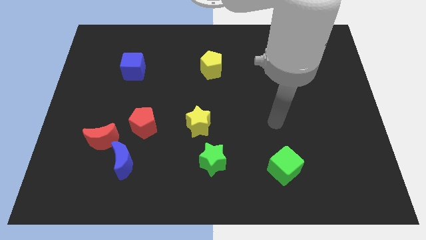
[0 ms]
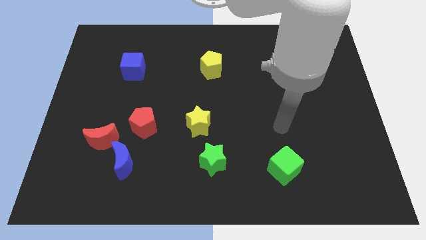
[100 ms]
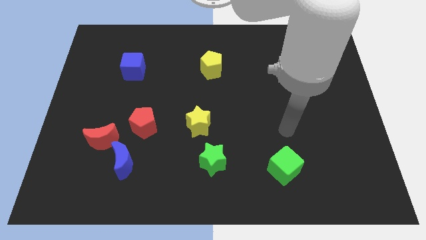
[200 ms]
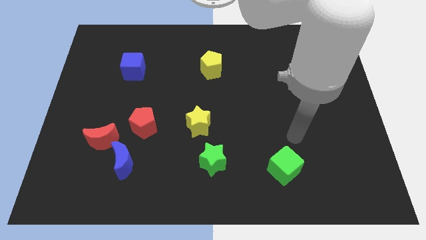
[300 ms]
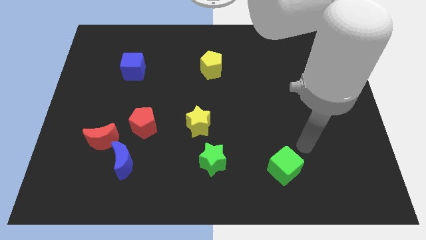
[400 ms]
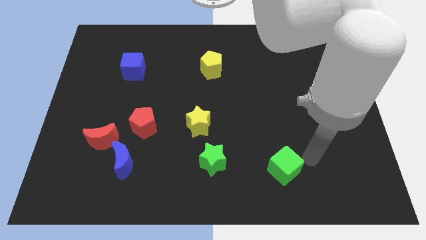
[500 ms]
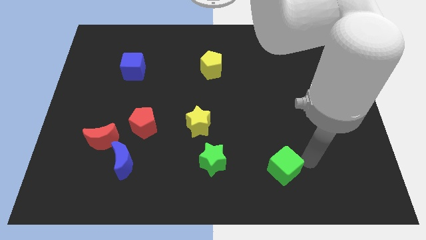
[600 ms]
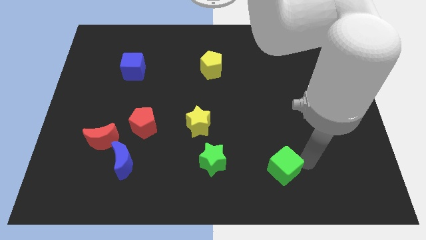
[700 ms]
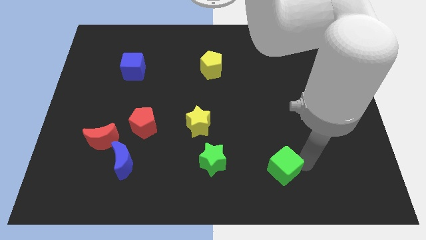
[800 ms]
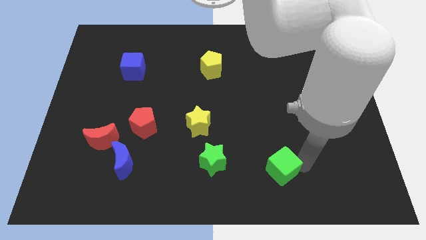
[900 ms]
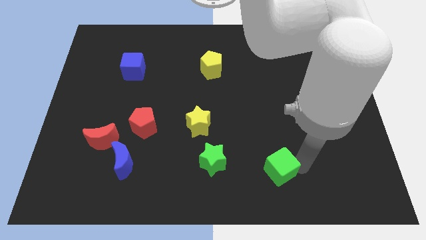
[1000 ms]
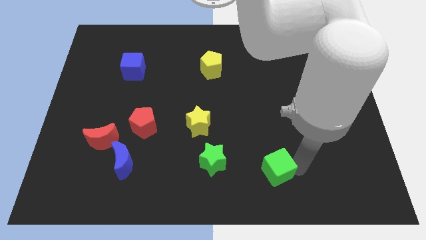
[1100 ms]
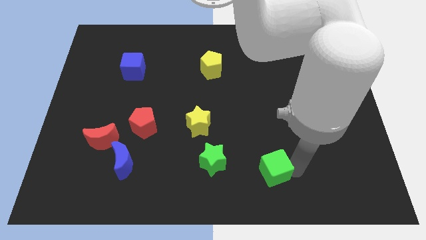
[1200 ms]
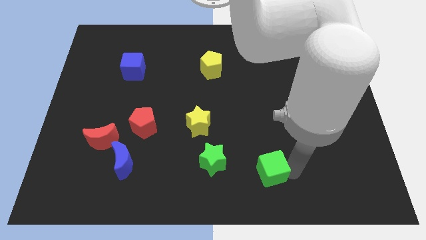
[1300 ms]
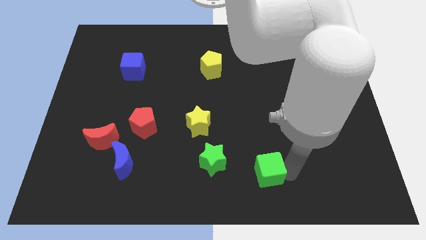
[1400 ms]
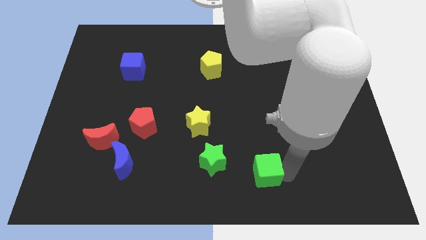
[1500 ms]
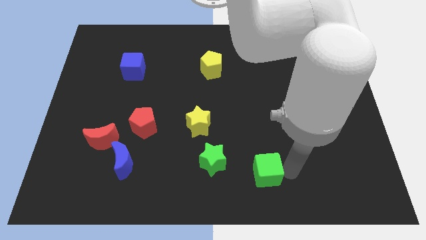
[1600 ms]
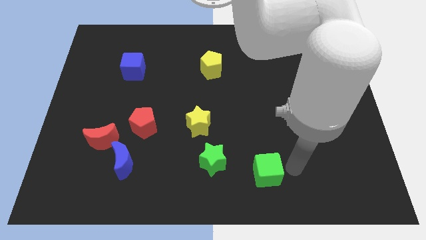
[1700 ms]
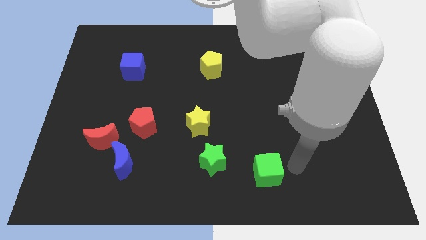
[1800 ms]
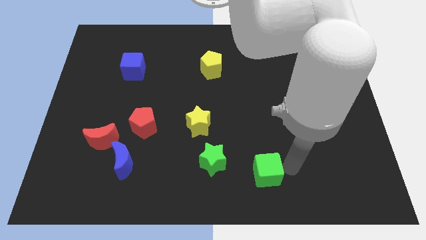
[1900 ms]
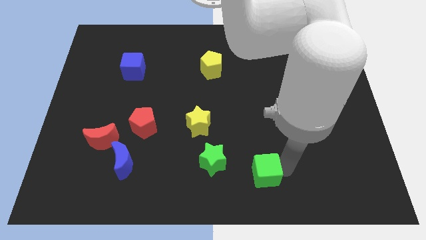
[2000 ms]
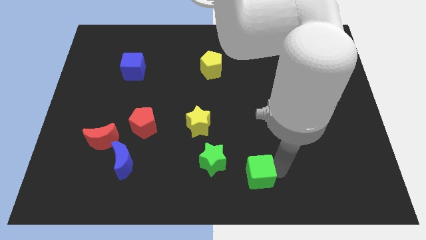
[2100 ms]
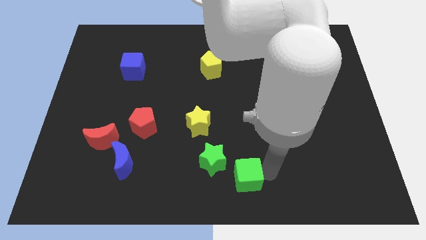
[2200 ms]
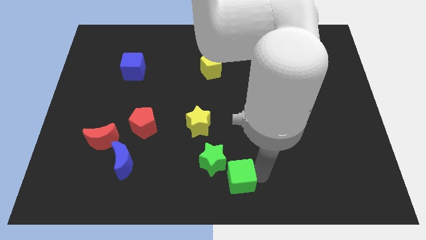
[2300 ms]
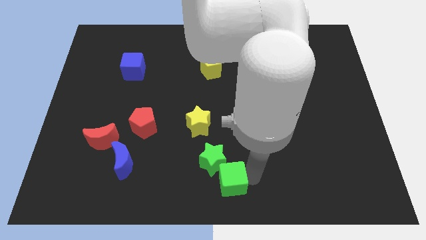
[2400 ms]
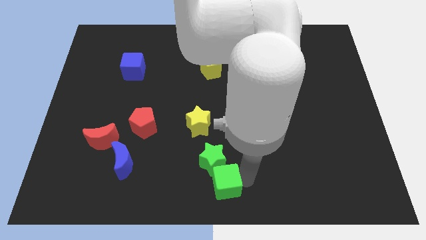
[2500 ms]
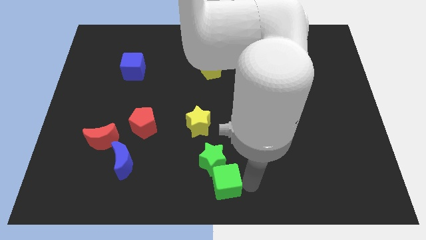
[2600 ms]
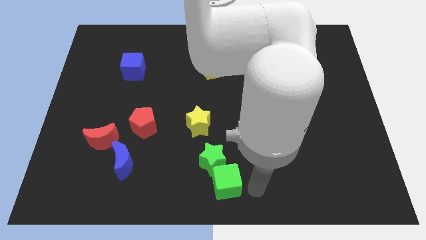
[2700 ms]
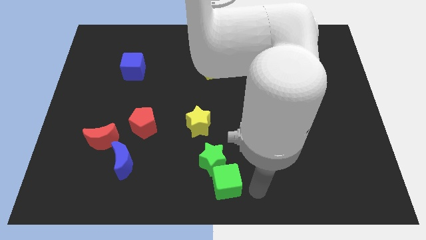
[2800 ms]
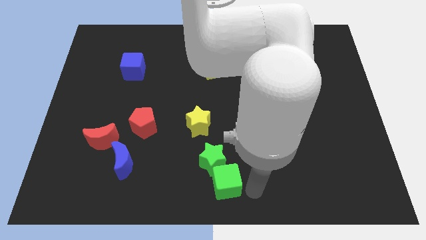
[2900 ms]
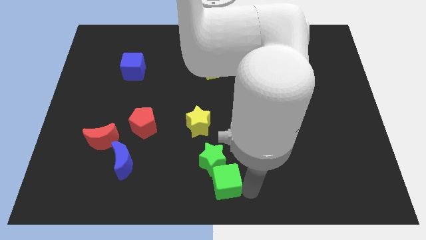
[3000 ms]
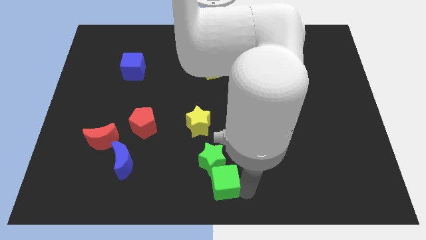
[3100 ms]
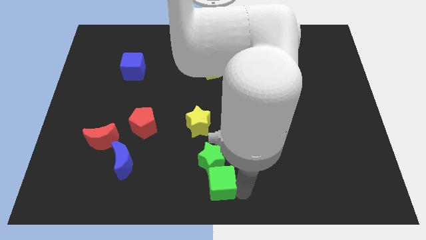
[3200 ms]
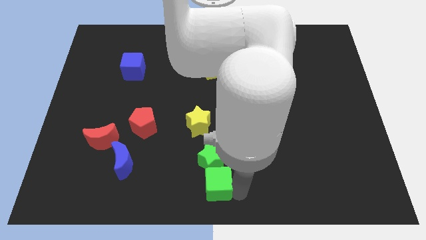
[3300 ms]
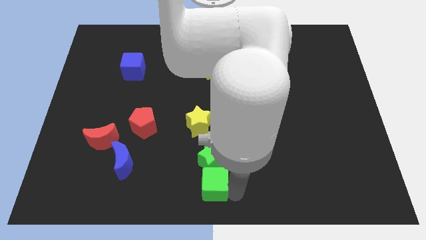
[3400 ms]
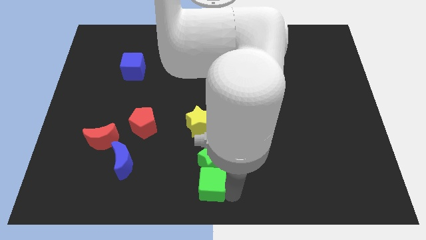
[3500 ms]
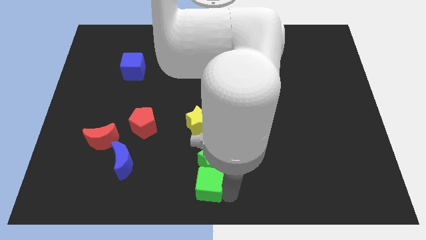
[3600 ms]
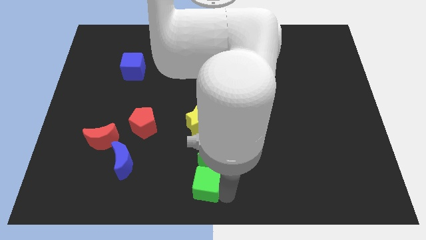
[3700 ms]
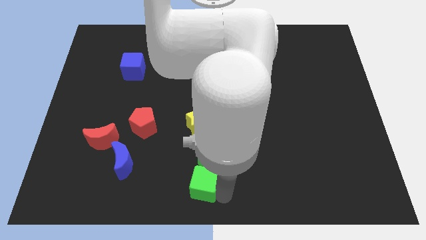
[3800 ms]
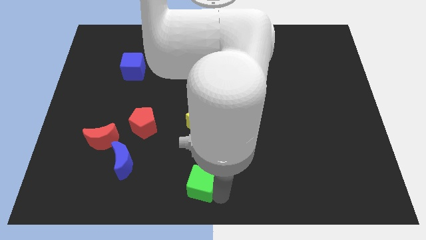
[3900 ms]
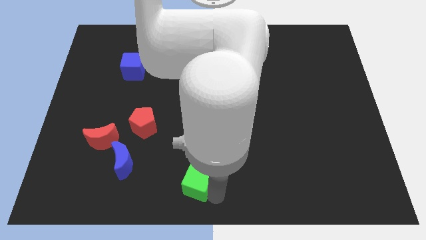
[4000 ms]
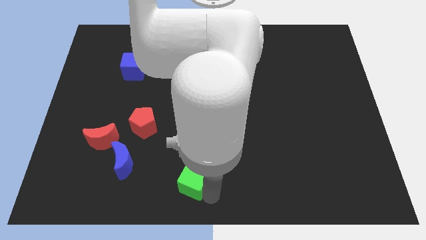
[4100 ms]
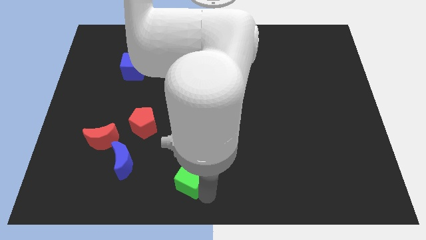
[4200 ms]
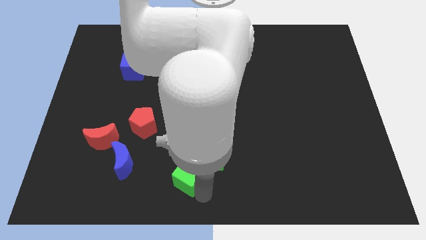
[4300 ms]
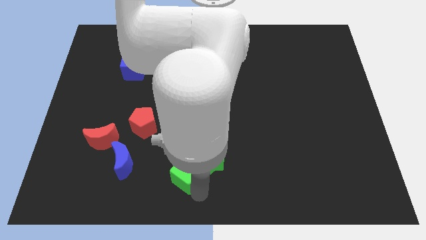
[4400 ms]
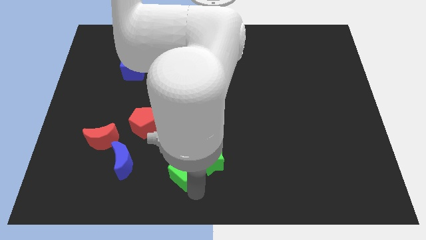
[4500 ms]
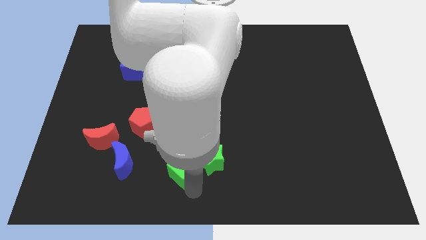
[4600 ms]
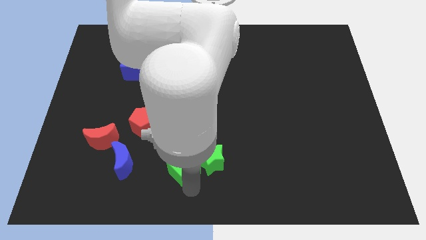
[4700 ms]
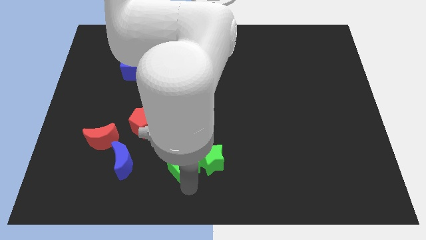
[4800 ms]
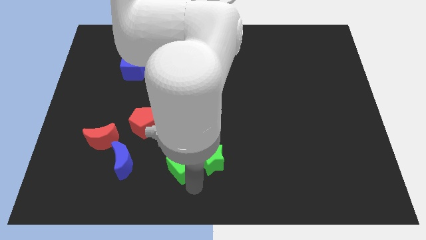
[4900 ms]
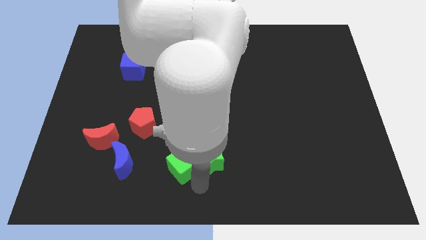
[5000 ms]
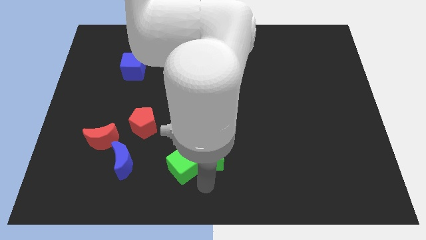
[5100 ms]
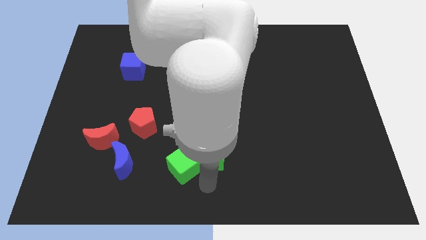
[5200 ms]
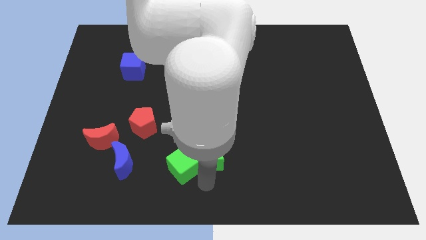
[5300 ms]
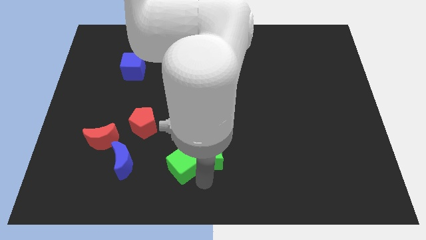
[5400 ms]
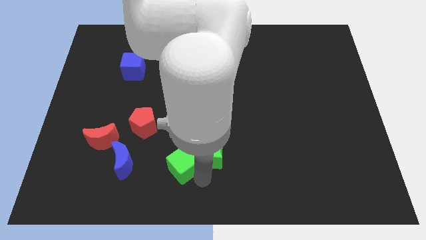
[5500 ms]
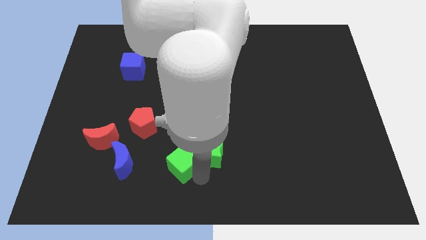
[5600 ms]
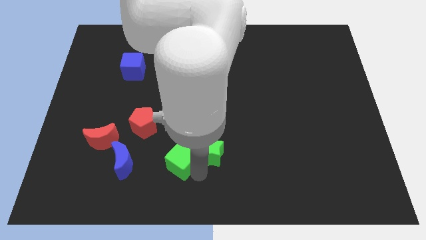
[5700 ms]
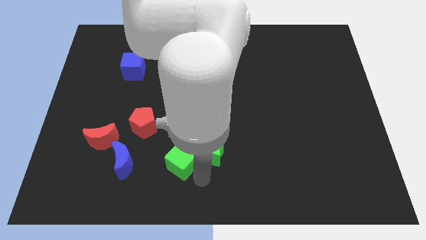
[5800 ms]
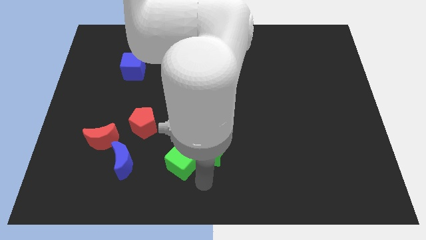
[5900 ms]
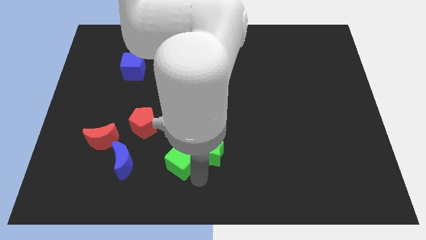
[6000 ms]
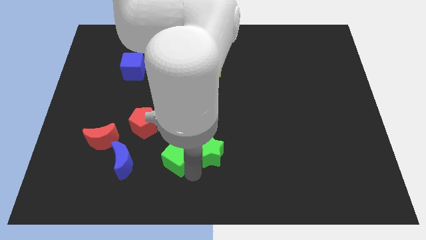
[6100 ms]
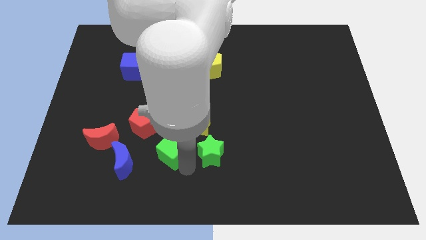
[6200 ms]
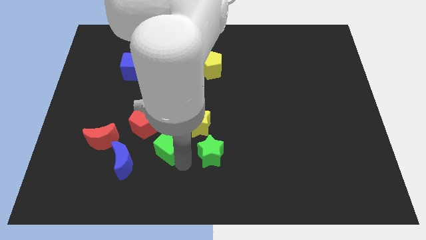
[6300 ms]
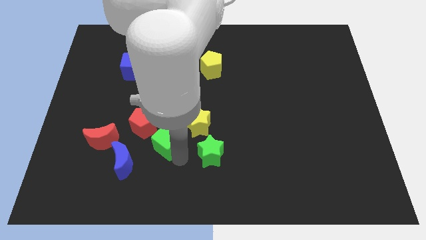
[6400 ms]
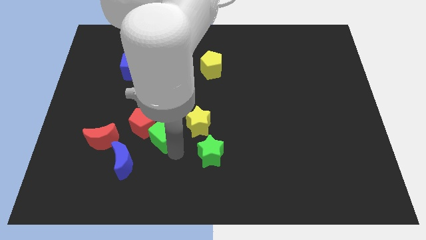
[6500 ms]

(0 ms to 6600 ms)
move the green cube towards the red pentagon

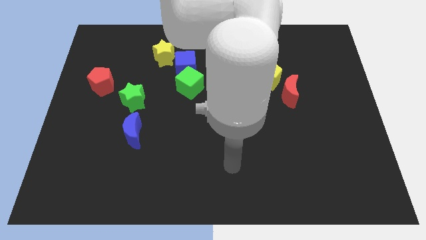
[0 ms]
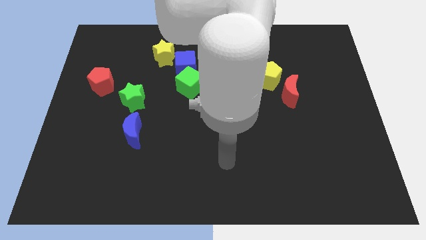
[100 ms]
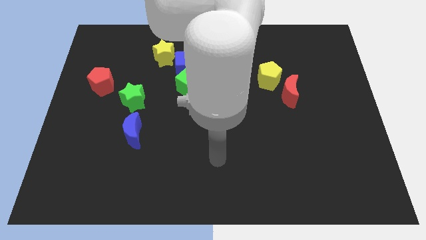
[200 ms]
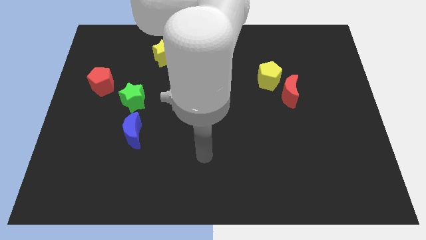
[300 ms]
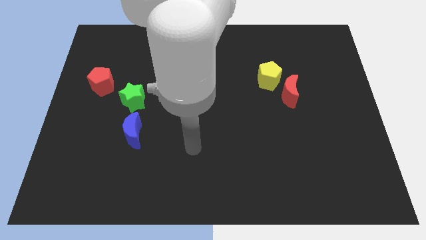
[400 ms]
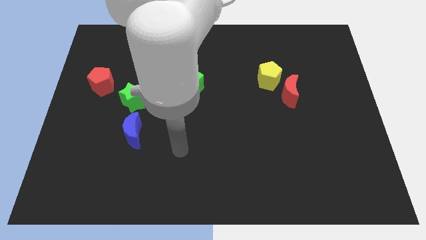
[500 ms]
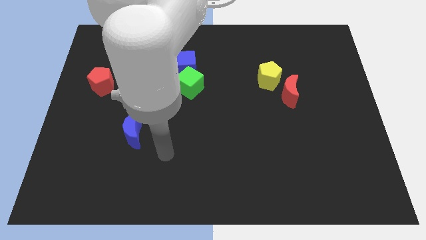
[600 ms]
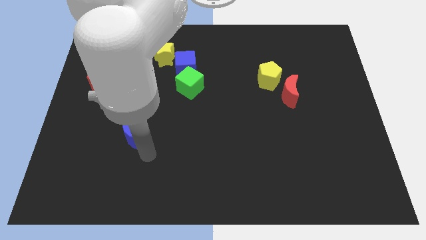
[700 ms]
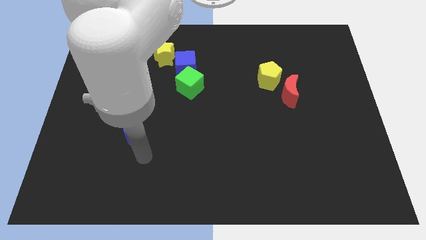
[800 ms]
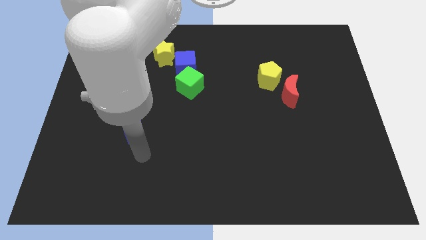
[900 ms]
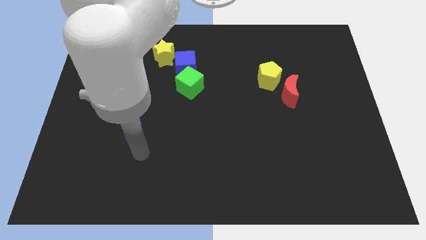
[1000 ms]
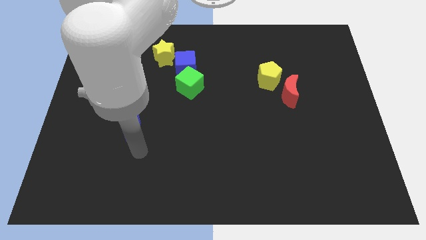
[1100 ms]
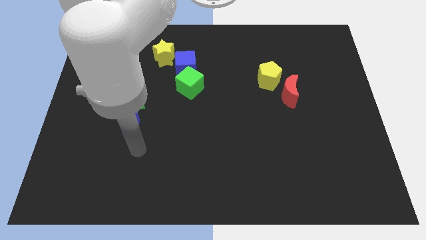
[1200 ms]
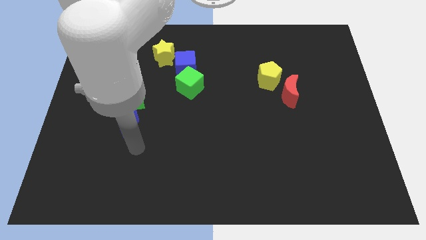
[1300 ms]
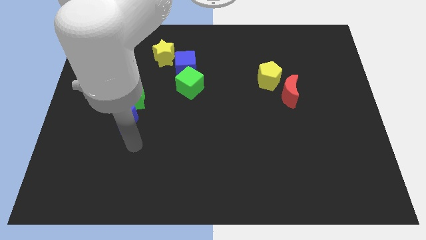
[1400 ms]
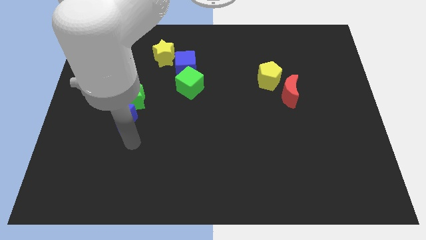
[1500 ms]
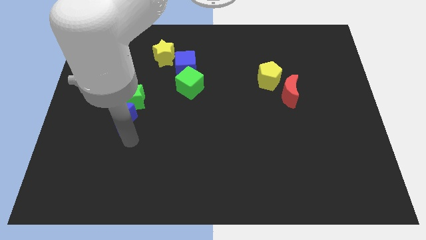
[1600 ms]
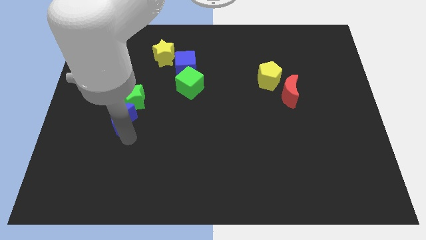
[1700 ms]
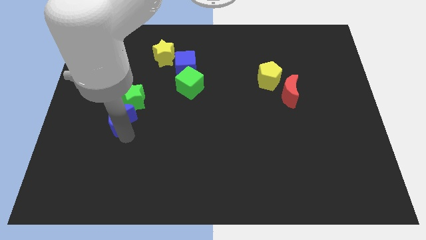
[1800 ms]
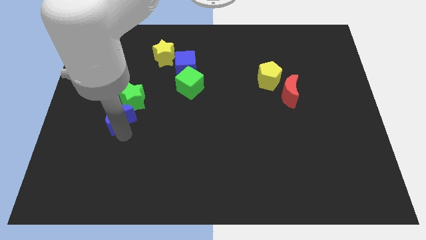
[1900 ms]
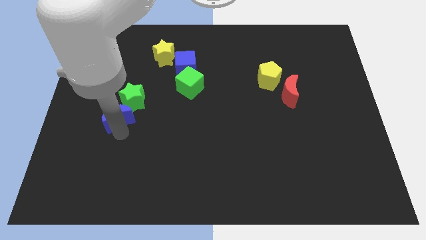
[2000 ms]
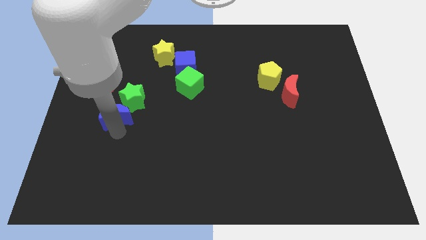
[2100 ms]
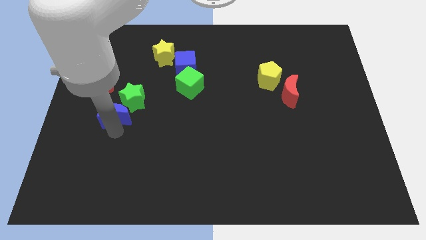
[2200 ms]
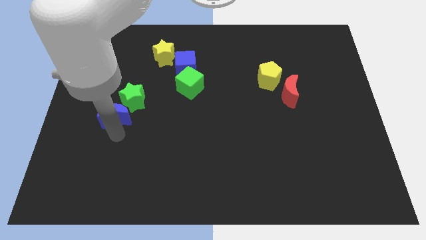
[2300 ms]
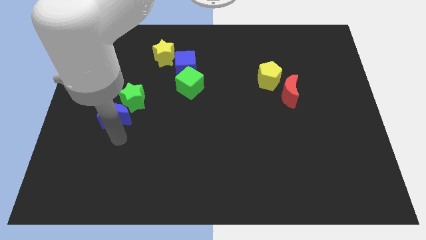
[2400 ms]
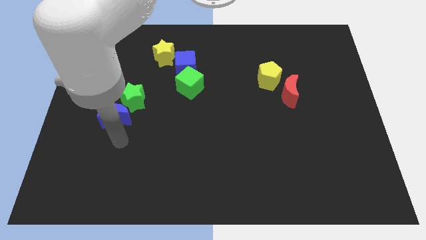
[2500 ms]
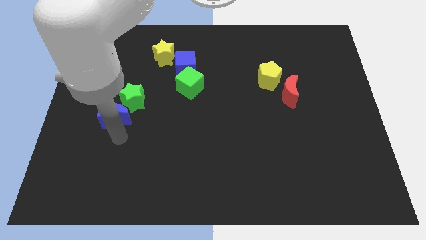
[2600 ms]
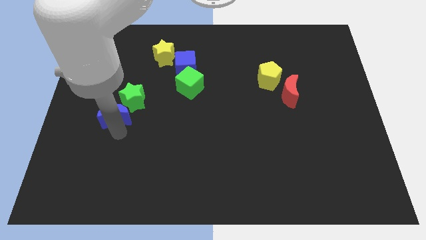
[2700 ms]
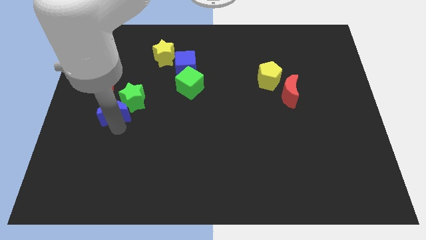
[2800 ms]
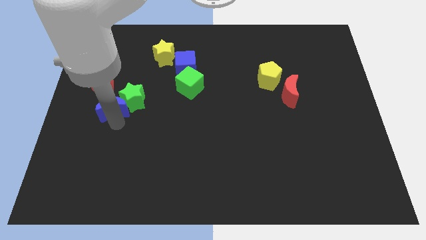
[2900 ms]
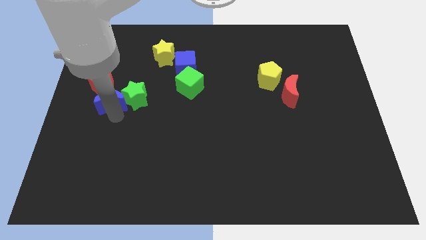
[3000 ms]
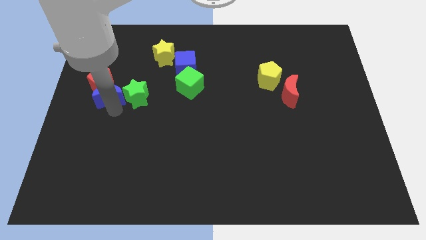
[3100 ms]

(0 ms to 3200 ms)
move the blue moon next to the red pentagon
